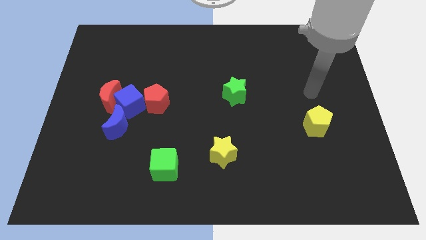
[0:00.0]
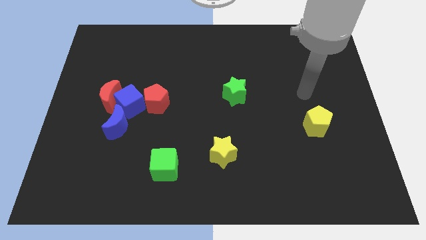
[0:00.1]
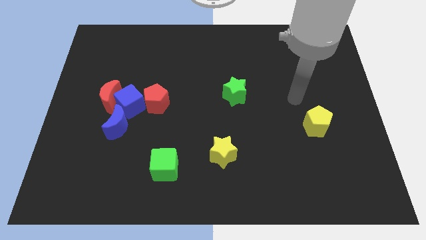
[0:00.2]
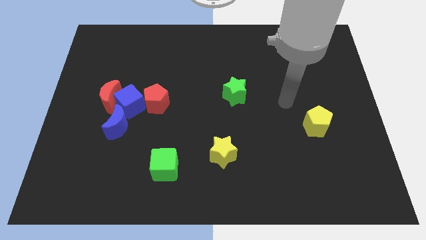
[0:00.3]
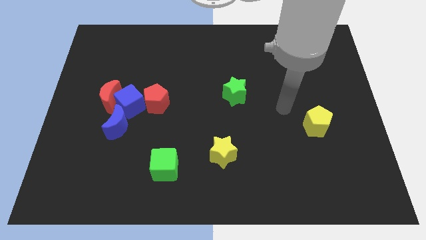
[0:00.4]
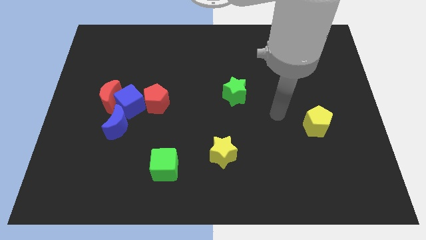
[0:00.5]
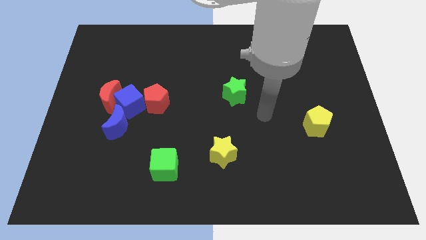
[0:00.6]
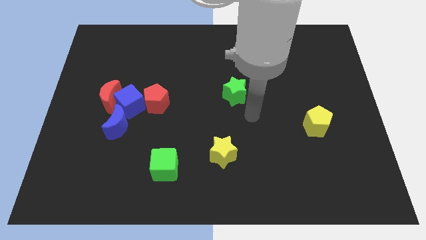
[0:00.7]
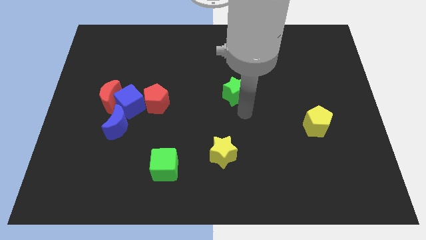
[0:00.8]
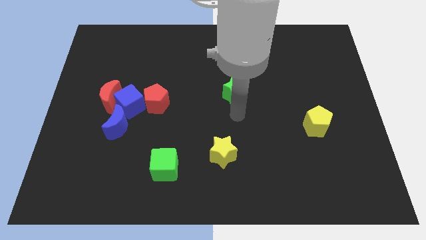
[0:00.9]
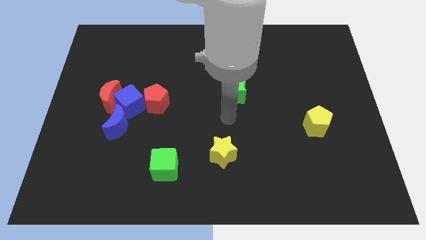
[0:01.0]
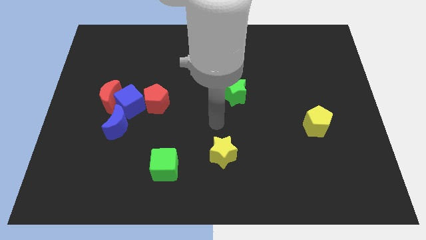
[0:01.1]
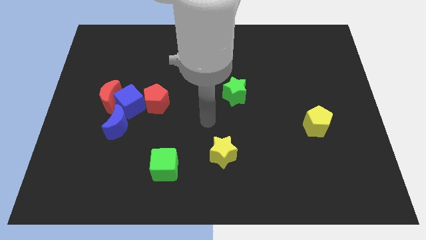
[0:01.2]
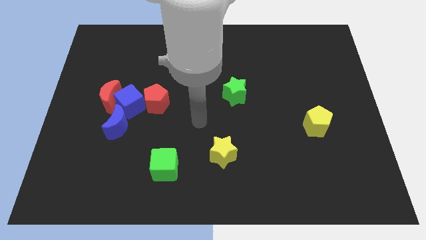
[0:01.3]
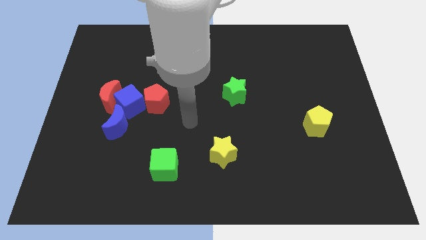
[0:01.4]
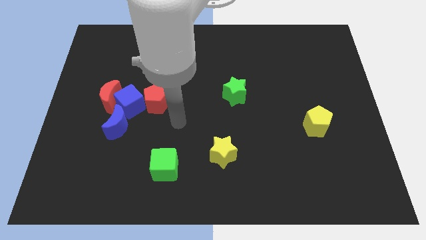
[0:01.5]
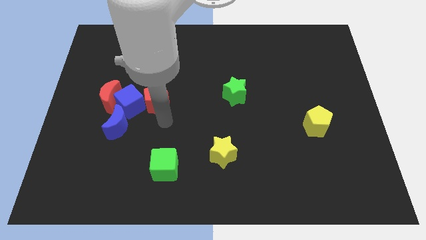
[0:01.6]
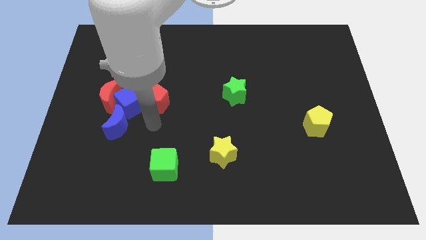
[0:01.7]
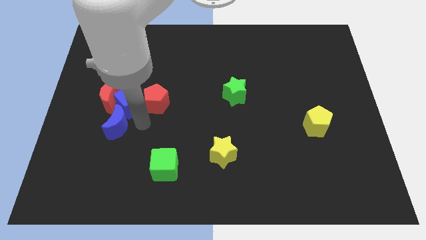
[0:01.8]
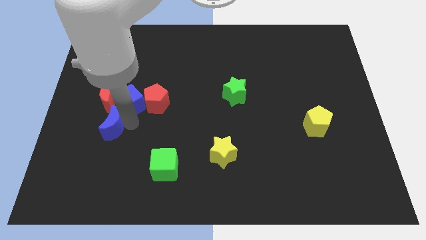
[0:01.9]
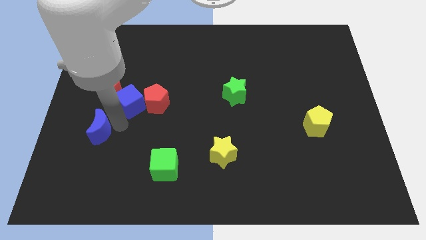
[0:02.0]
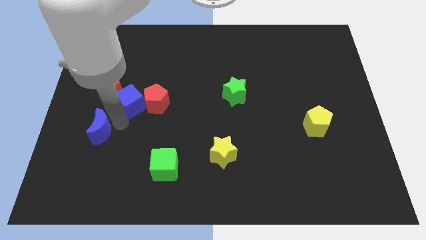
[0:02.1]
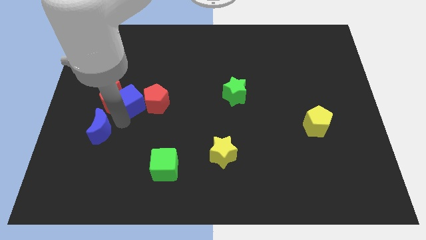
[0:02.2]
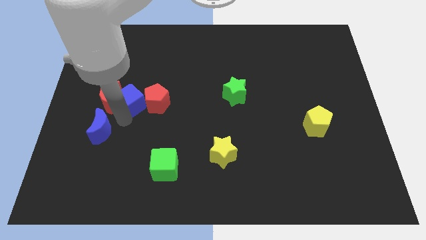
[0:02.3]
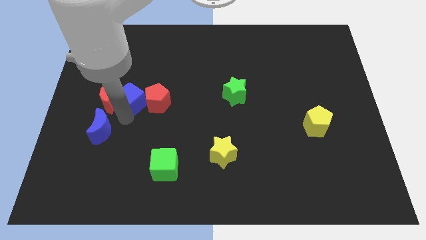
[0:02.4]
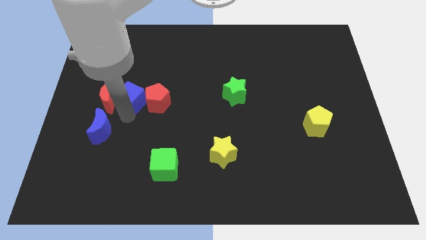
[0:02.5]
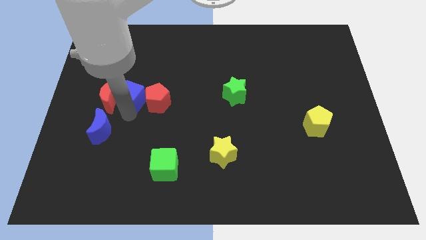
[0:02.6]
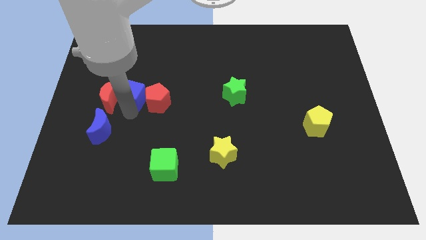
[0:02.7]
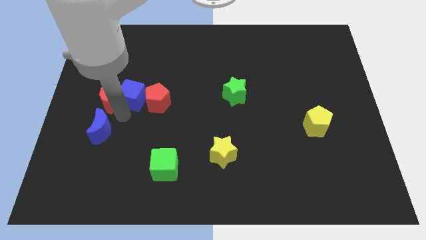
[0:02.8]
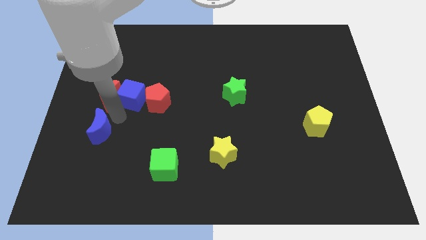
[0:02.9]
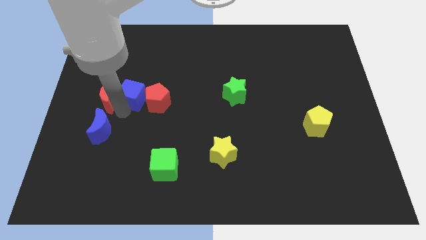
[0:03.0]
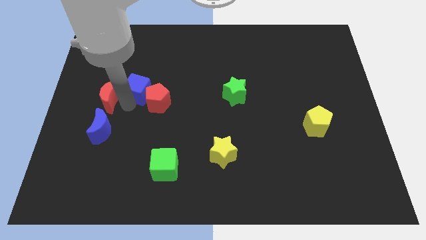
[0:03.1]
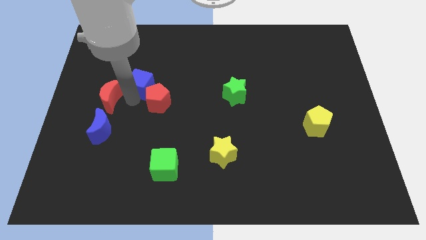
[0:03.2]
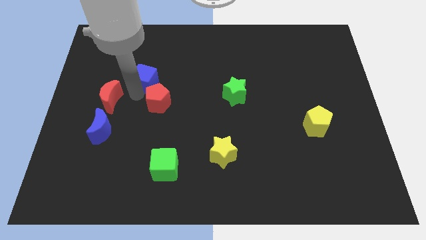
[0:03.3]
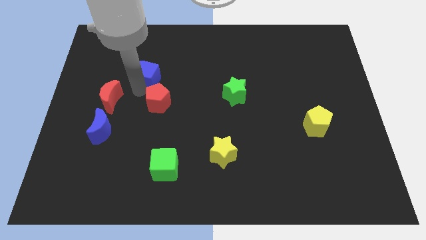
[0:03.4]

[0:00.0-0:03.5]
separate the blue cube from the clump

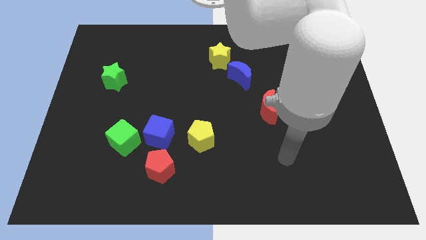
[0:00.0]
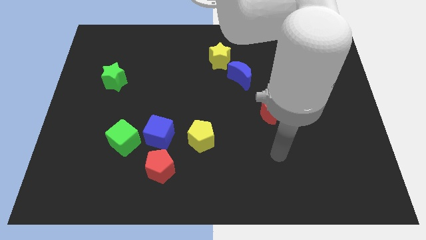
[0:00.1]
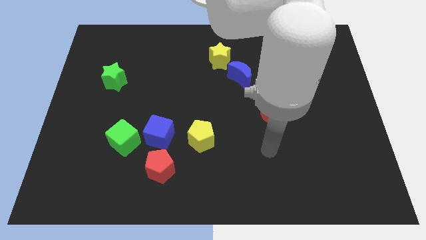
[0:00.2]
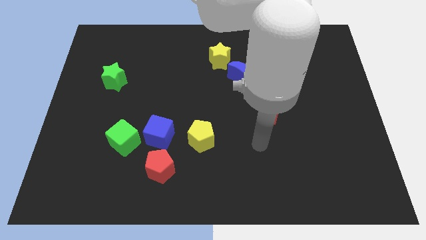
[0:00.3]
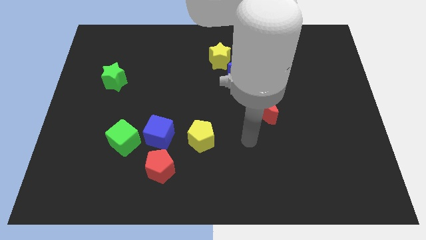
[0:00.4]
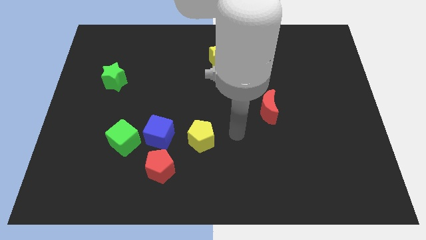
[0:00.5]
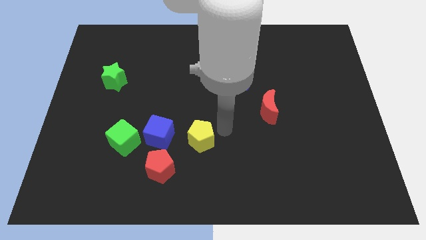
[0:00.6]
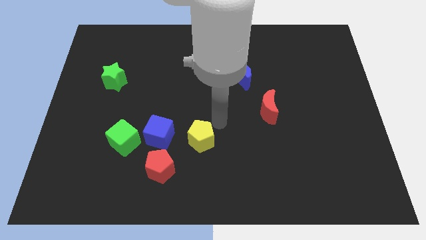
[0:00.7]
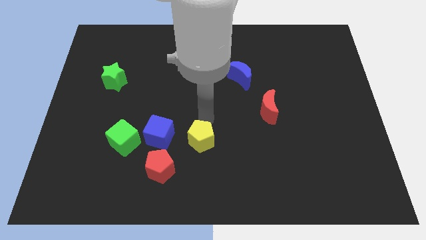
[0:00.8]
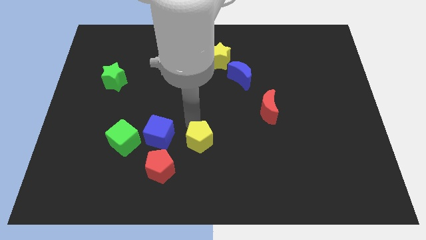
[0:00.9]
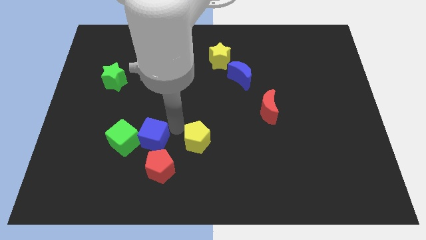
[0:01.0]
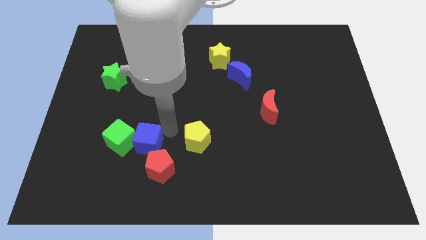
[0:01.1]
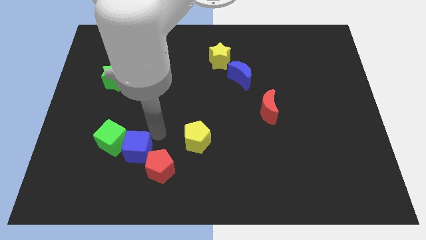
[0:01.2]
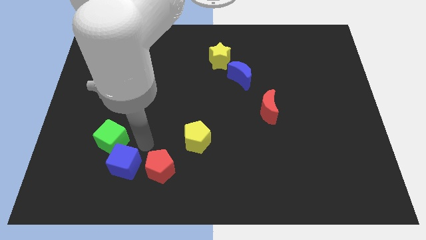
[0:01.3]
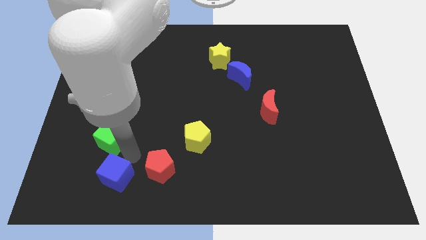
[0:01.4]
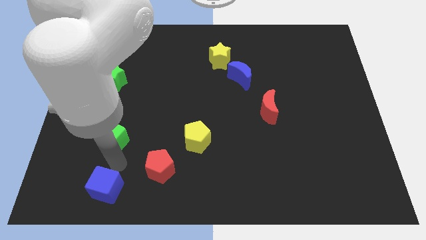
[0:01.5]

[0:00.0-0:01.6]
separate the green cube from the blue cube

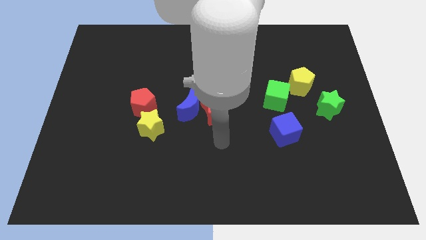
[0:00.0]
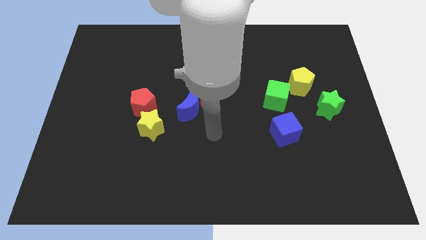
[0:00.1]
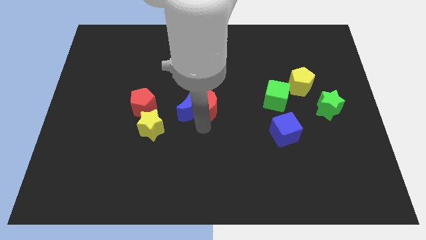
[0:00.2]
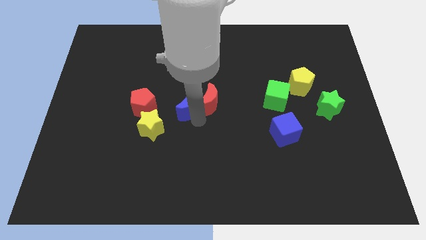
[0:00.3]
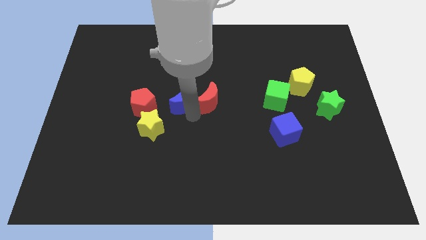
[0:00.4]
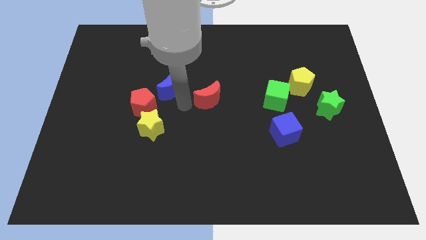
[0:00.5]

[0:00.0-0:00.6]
pull the red moon apart from the blue moon

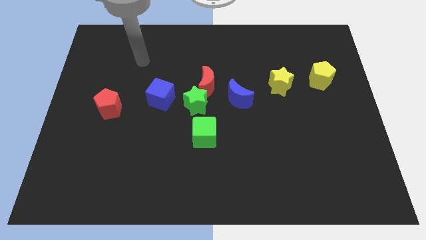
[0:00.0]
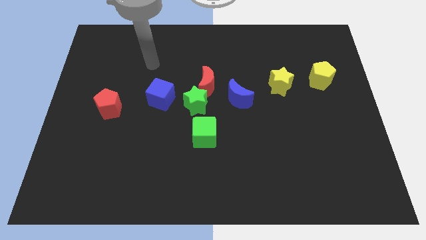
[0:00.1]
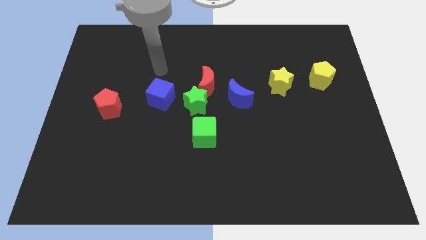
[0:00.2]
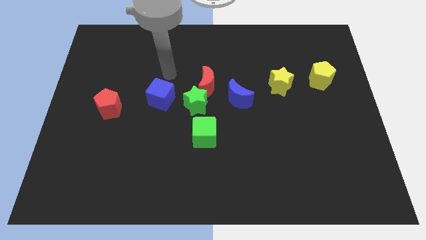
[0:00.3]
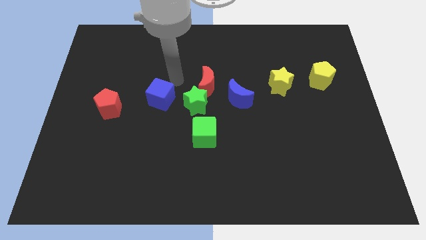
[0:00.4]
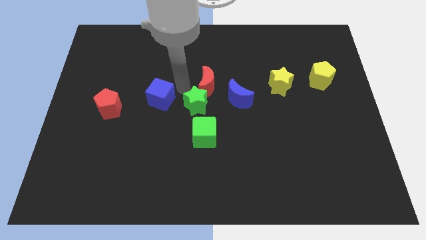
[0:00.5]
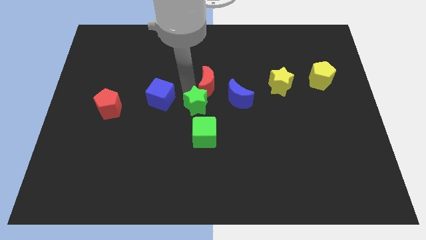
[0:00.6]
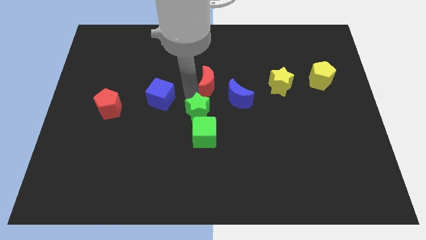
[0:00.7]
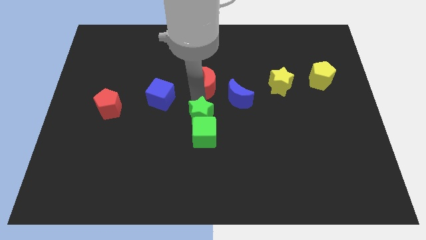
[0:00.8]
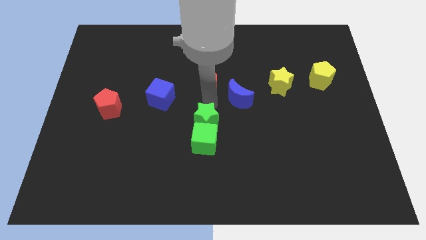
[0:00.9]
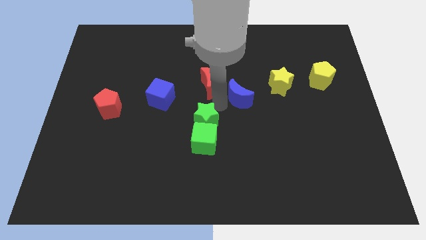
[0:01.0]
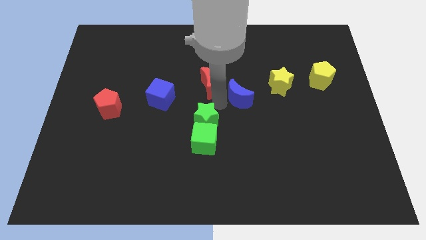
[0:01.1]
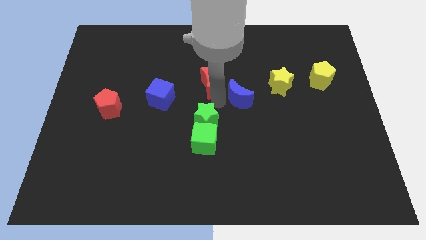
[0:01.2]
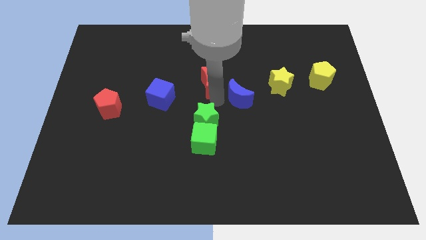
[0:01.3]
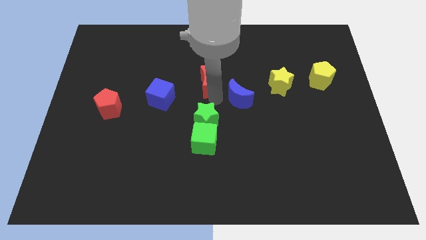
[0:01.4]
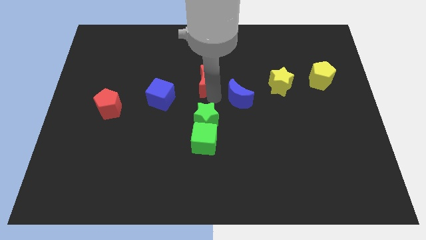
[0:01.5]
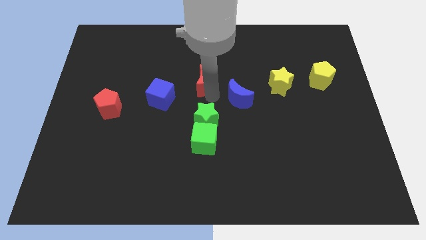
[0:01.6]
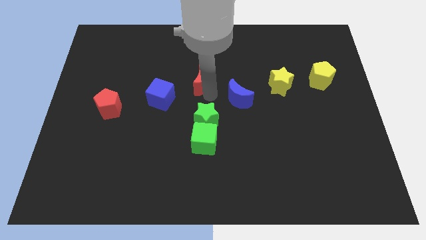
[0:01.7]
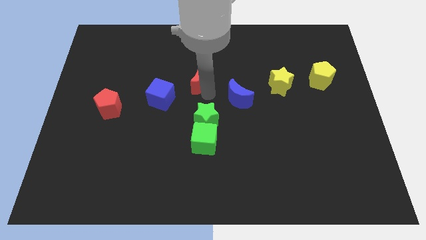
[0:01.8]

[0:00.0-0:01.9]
move the red moon away from the green star and blue moon

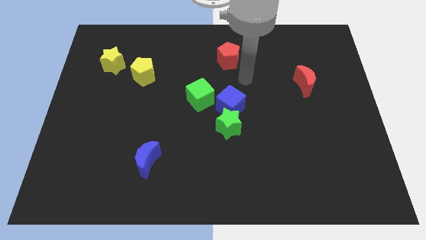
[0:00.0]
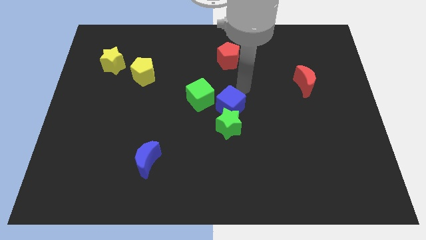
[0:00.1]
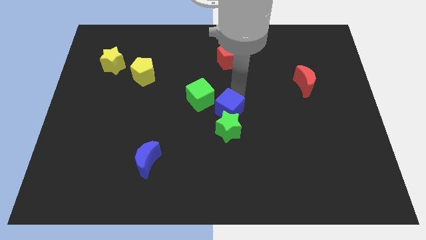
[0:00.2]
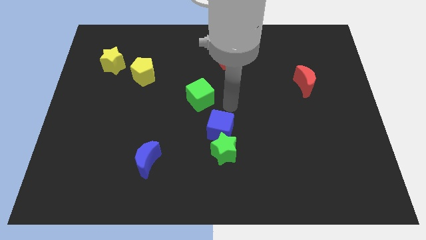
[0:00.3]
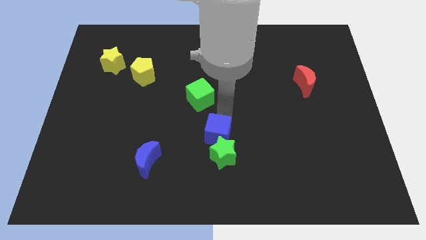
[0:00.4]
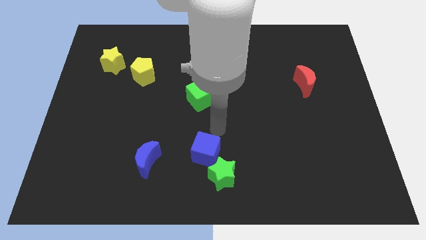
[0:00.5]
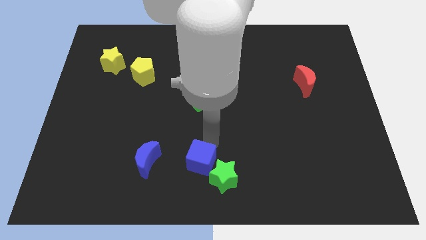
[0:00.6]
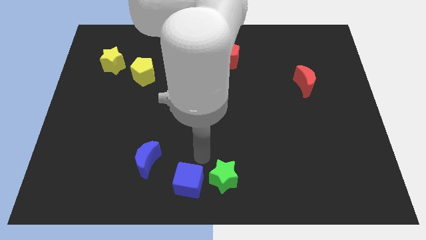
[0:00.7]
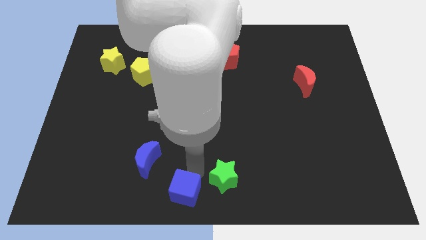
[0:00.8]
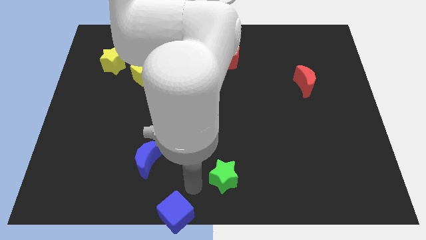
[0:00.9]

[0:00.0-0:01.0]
pull the green star apart from the blue cube

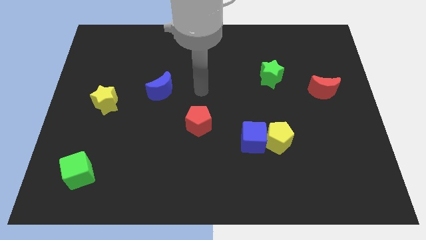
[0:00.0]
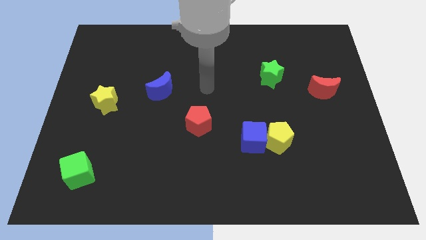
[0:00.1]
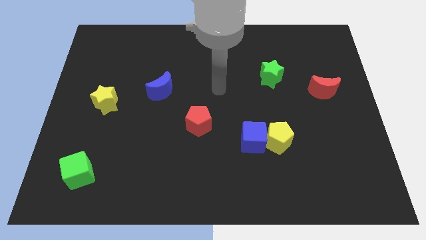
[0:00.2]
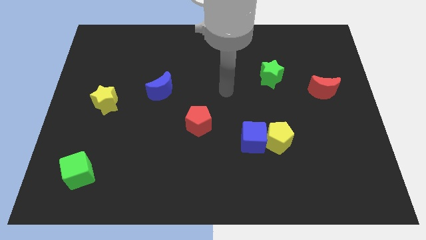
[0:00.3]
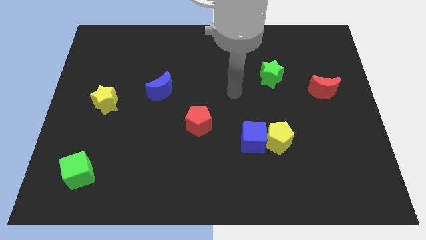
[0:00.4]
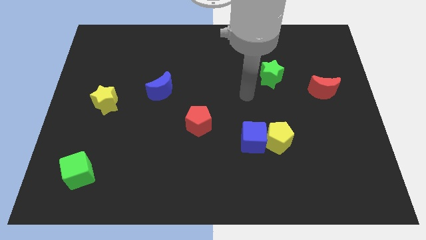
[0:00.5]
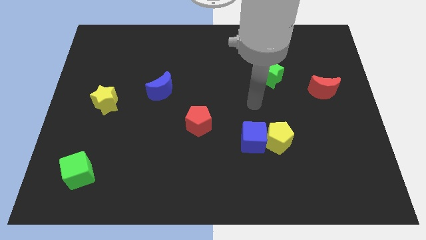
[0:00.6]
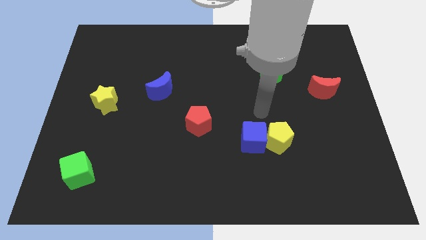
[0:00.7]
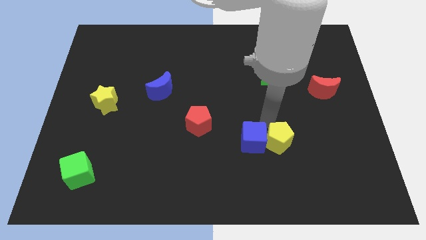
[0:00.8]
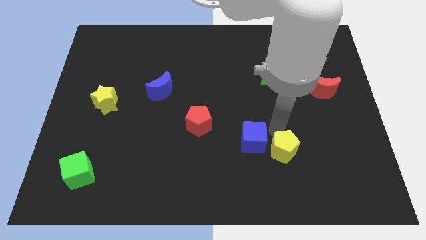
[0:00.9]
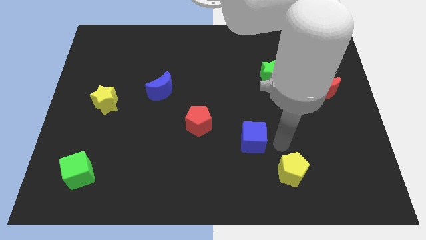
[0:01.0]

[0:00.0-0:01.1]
pull the blue cube apart from the yellow pentagon
